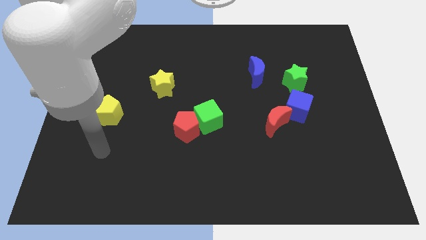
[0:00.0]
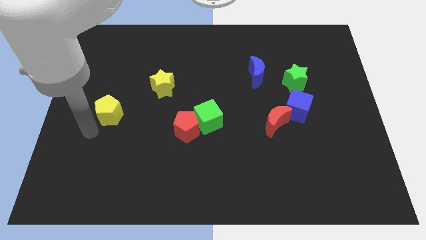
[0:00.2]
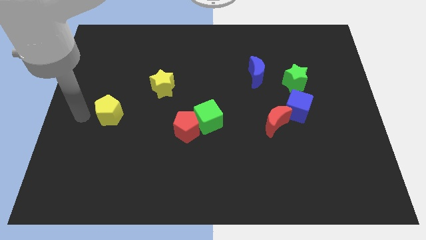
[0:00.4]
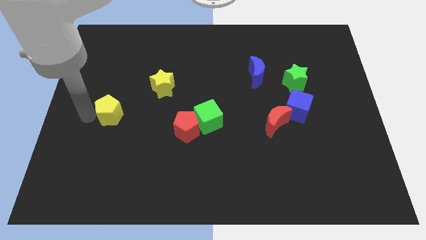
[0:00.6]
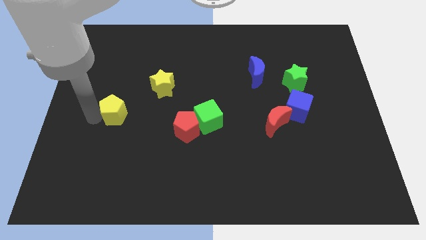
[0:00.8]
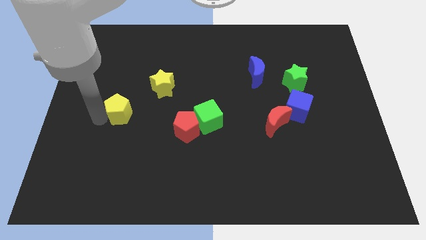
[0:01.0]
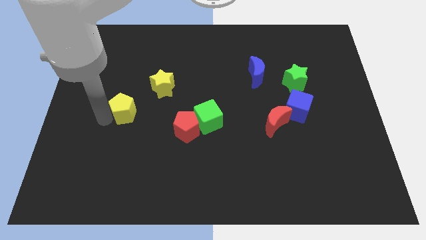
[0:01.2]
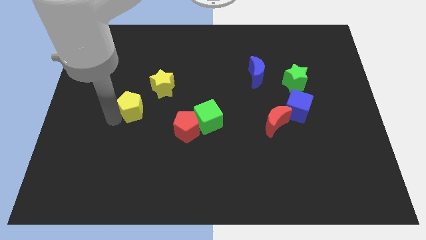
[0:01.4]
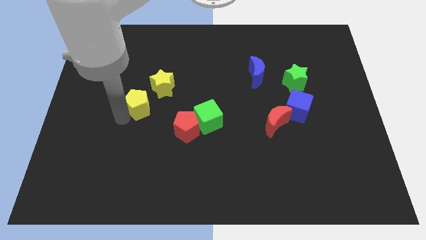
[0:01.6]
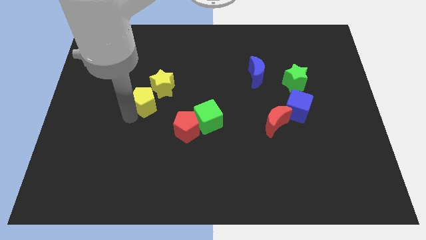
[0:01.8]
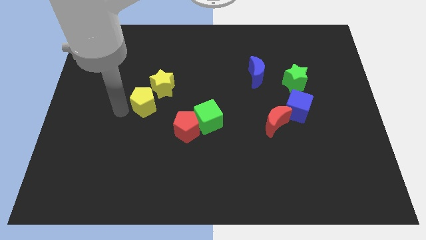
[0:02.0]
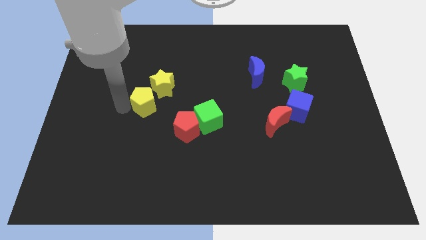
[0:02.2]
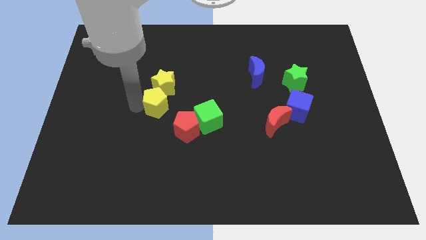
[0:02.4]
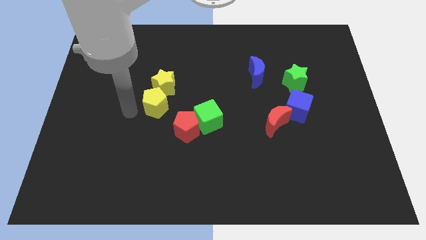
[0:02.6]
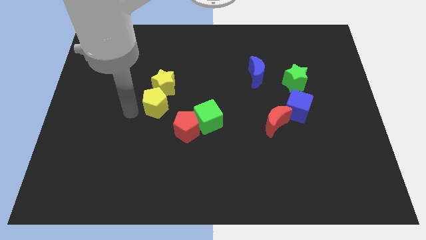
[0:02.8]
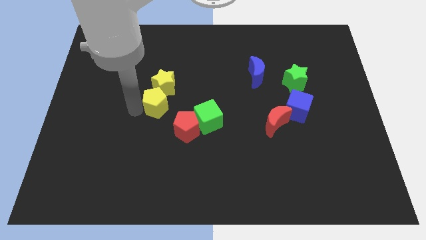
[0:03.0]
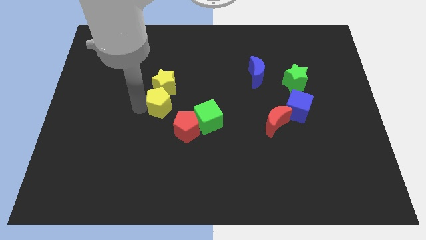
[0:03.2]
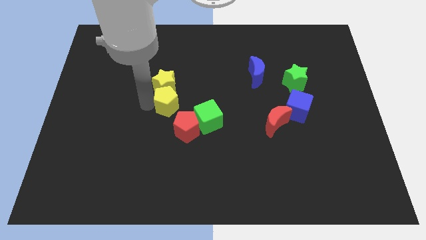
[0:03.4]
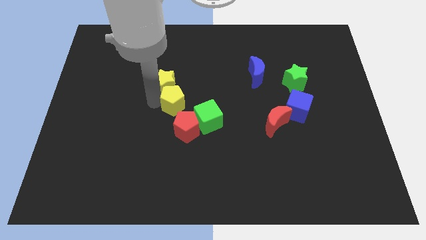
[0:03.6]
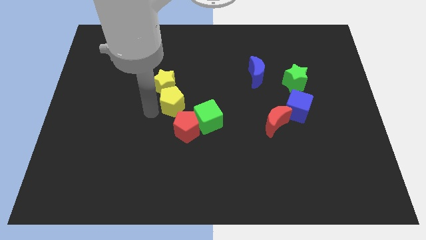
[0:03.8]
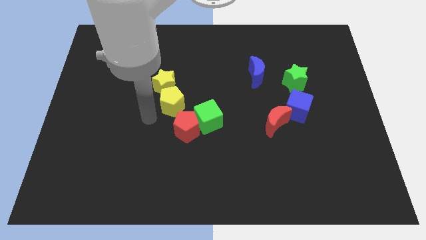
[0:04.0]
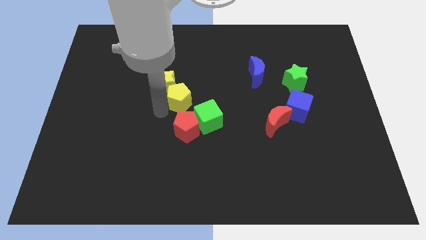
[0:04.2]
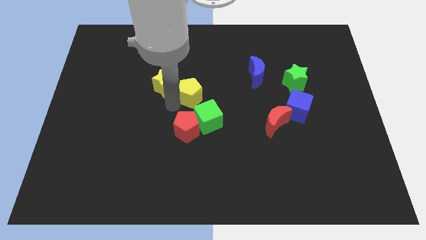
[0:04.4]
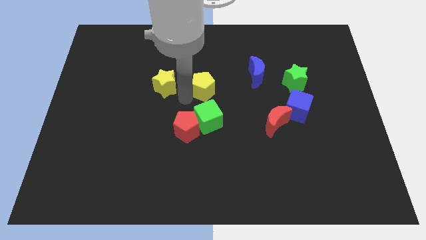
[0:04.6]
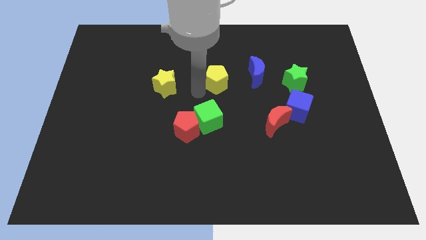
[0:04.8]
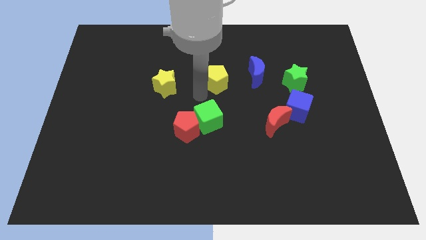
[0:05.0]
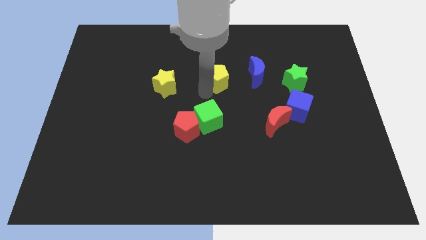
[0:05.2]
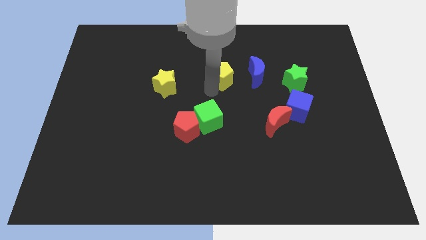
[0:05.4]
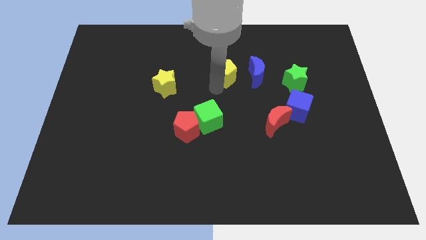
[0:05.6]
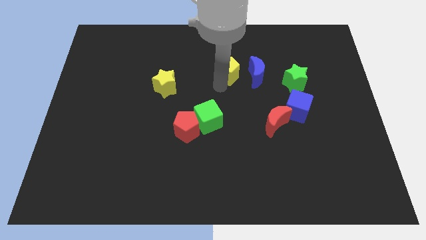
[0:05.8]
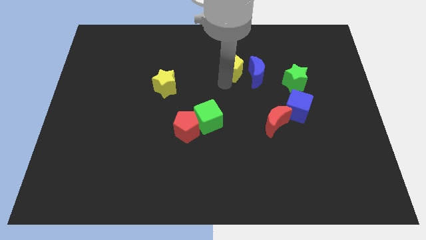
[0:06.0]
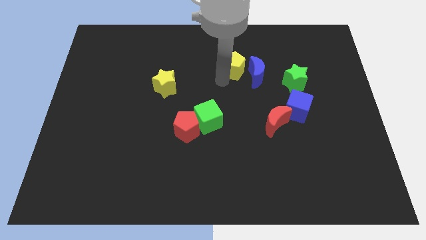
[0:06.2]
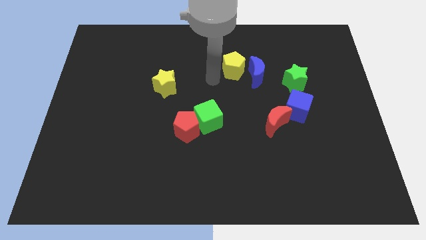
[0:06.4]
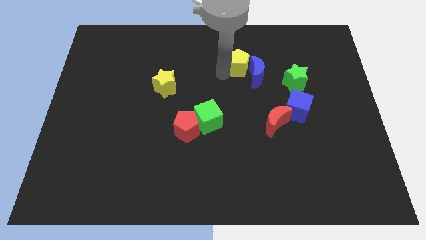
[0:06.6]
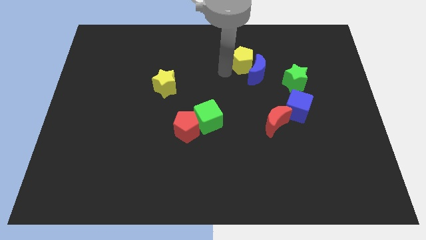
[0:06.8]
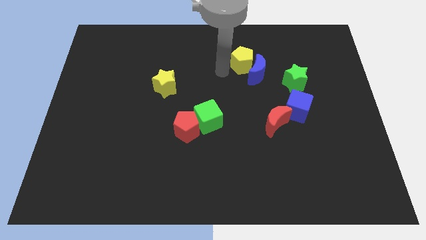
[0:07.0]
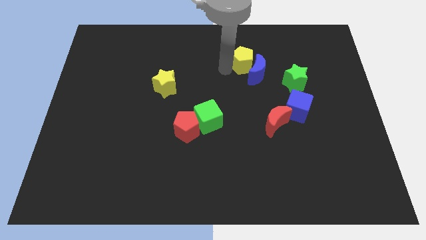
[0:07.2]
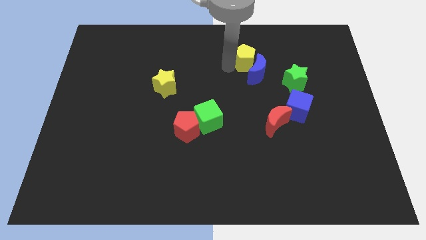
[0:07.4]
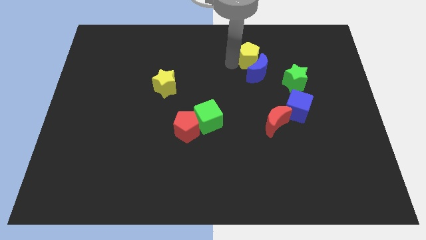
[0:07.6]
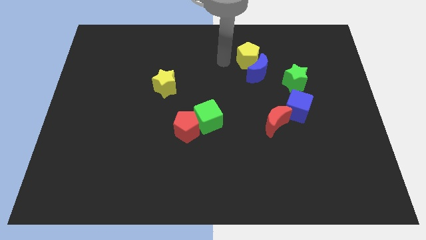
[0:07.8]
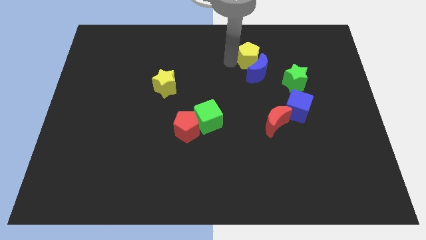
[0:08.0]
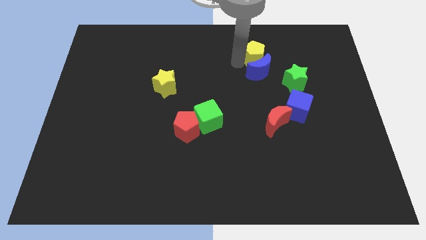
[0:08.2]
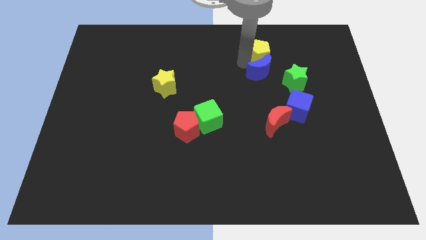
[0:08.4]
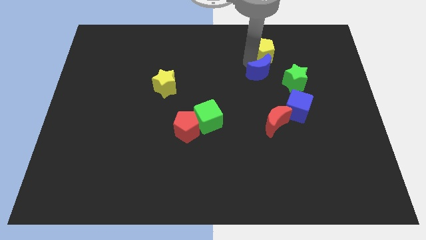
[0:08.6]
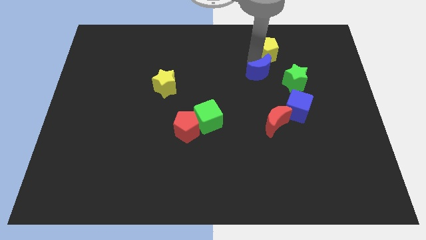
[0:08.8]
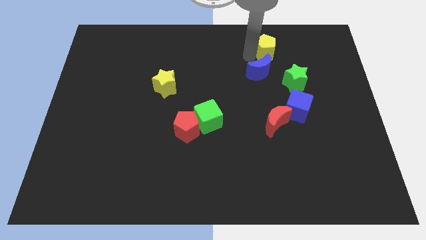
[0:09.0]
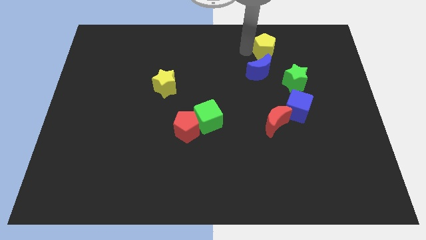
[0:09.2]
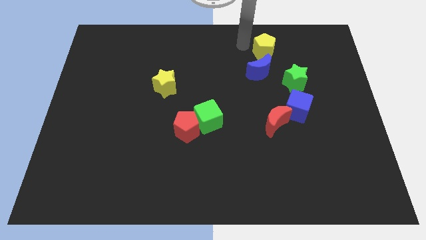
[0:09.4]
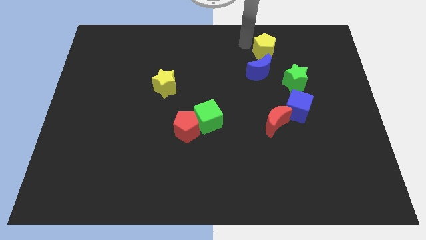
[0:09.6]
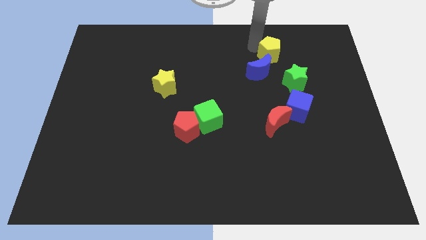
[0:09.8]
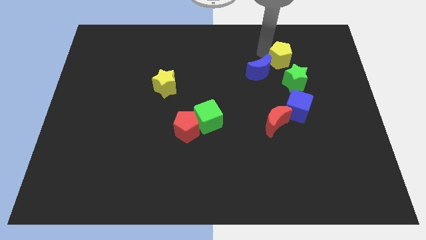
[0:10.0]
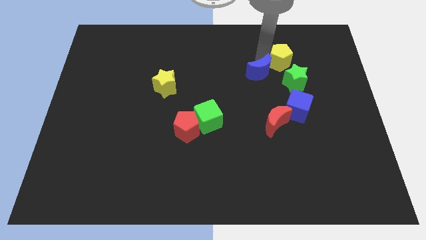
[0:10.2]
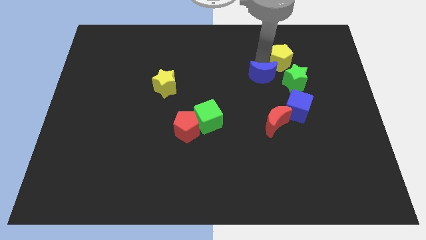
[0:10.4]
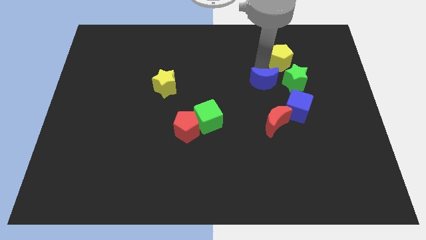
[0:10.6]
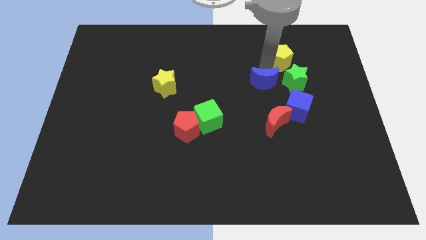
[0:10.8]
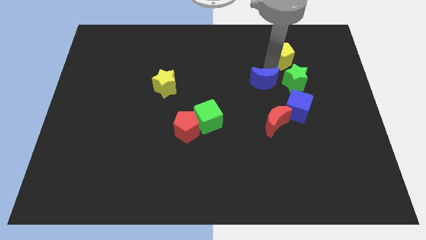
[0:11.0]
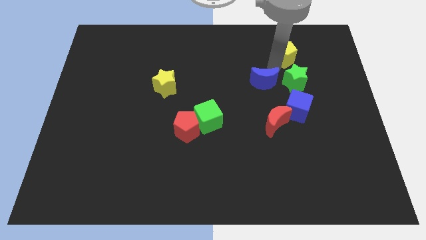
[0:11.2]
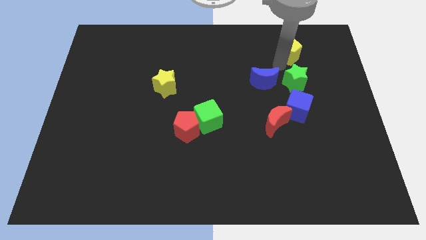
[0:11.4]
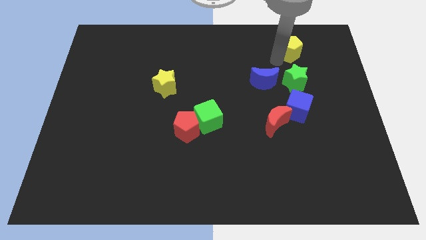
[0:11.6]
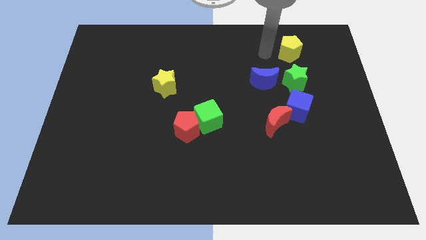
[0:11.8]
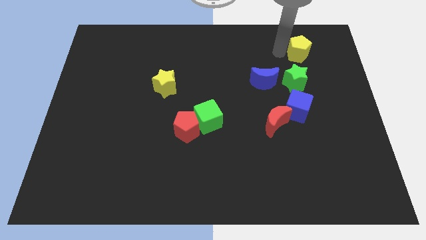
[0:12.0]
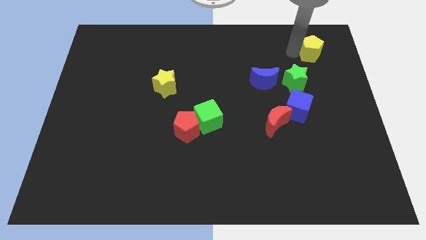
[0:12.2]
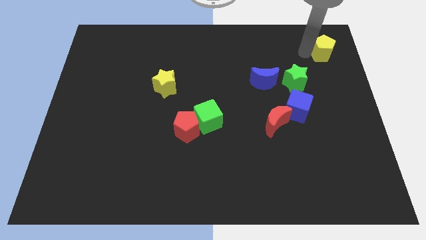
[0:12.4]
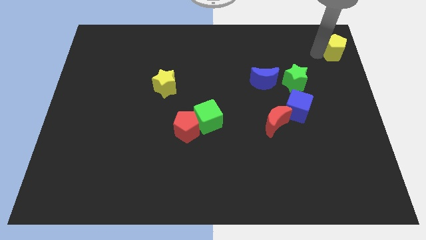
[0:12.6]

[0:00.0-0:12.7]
move the yellow pentagon to the upper right corner

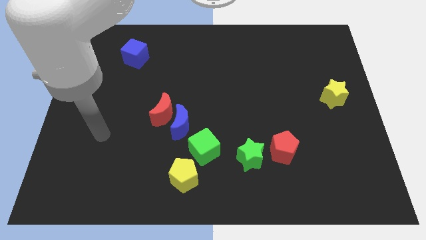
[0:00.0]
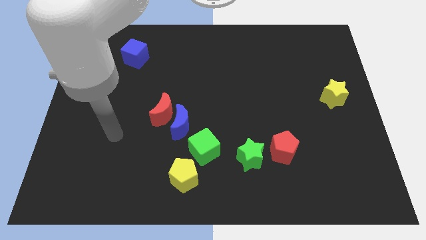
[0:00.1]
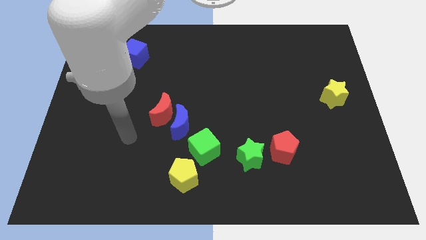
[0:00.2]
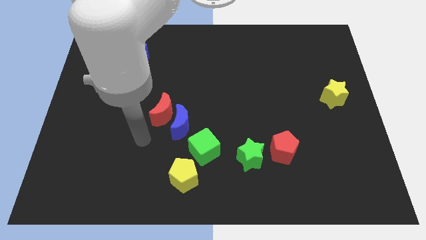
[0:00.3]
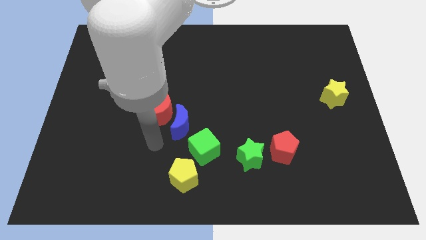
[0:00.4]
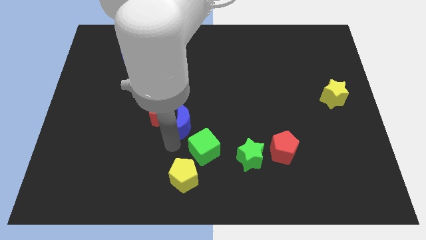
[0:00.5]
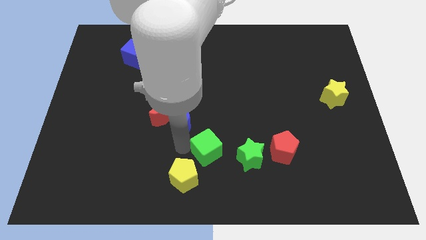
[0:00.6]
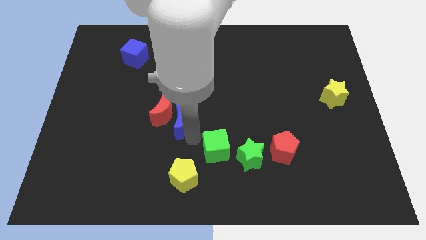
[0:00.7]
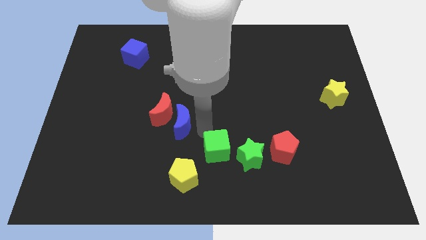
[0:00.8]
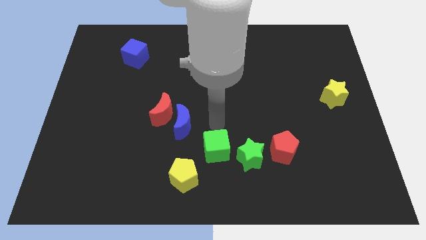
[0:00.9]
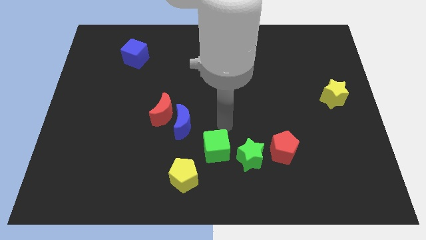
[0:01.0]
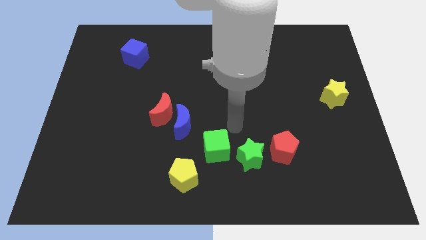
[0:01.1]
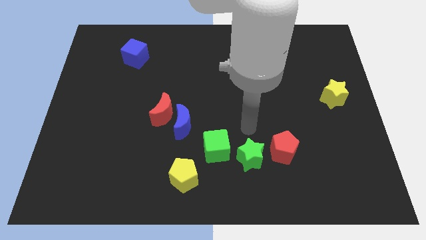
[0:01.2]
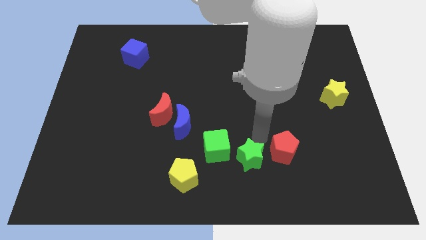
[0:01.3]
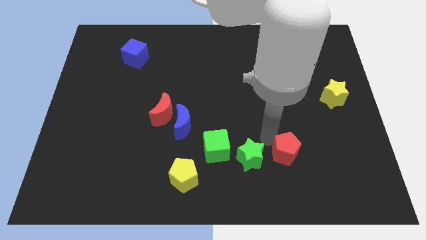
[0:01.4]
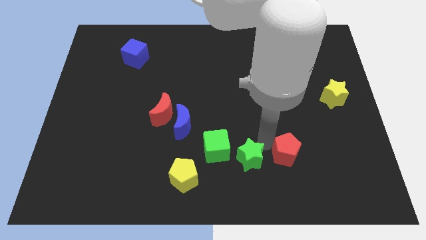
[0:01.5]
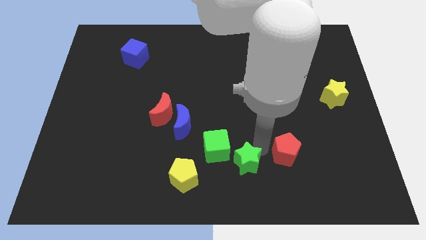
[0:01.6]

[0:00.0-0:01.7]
move the green star to the bottom side
